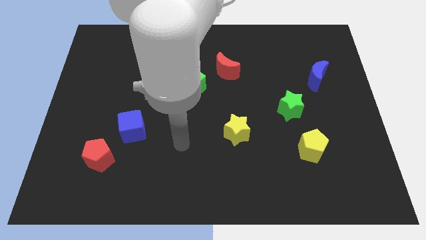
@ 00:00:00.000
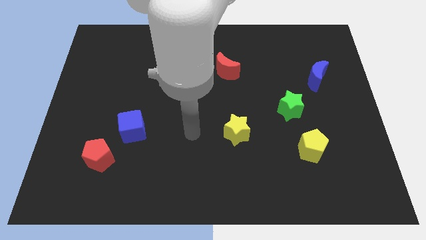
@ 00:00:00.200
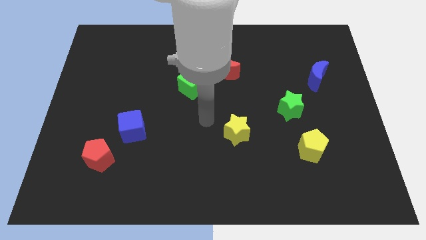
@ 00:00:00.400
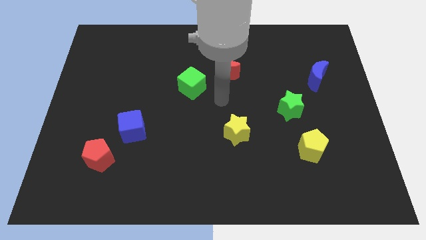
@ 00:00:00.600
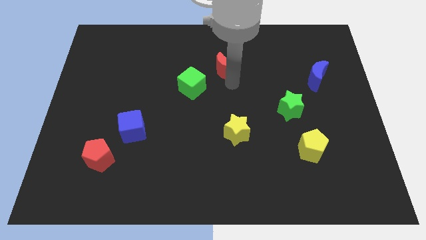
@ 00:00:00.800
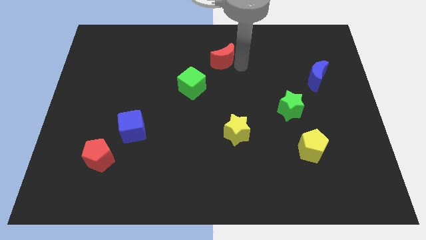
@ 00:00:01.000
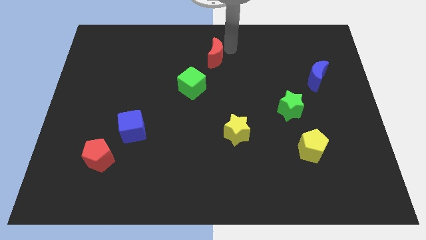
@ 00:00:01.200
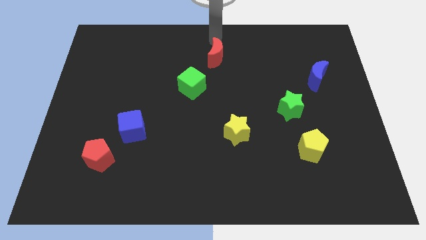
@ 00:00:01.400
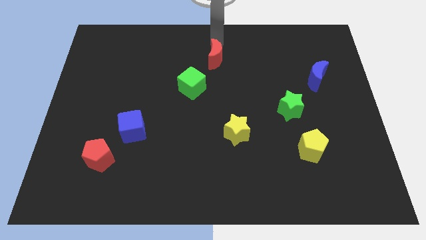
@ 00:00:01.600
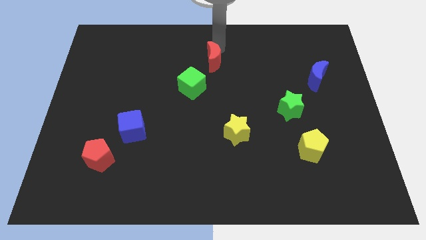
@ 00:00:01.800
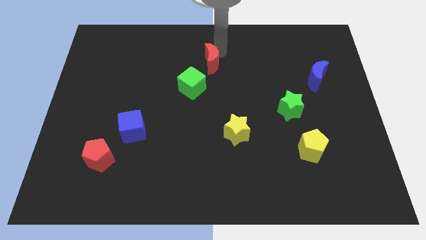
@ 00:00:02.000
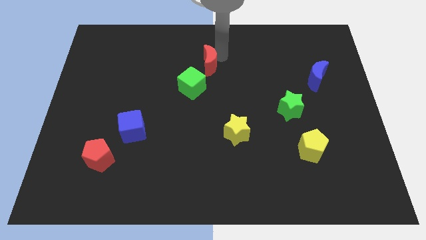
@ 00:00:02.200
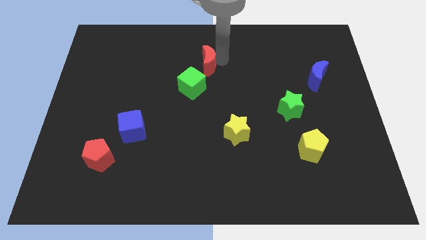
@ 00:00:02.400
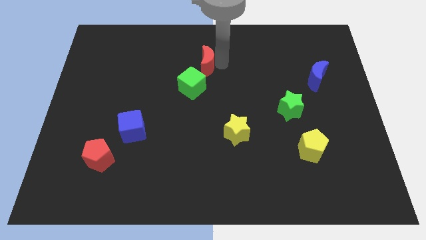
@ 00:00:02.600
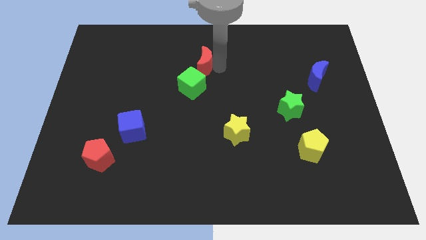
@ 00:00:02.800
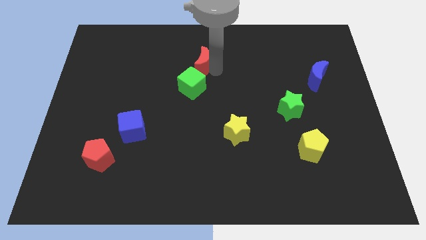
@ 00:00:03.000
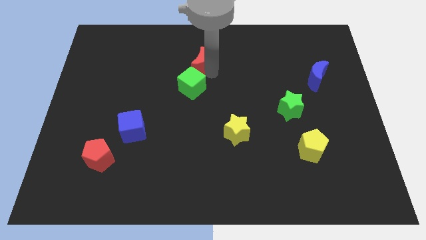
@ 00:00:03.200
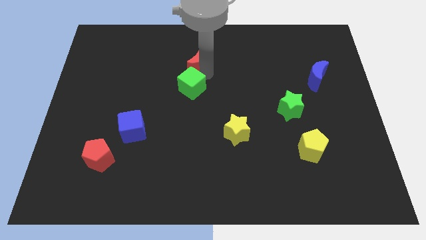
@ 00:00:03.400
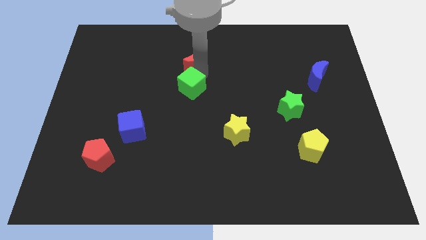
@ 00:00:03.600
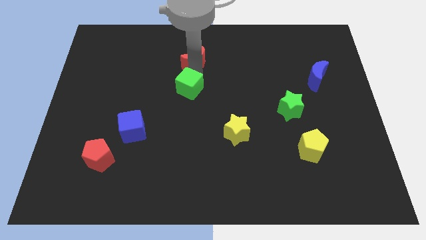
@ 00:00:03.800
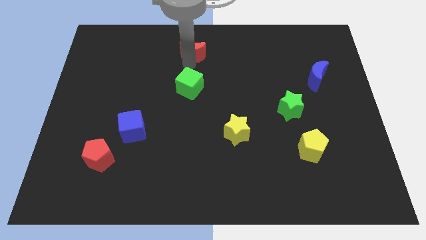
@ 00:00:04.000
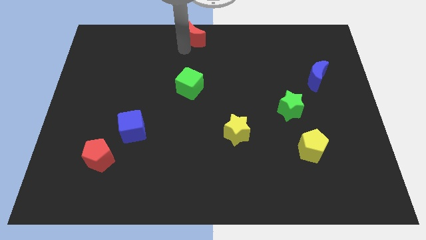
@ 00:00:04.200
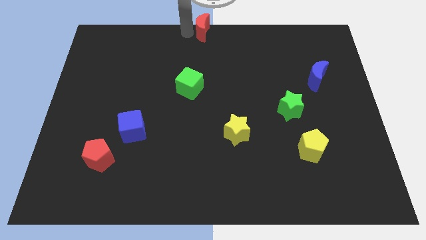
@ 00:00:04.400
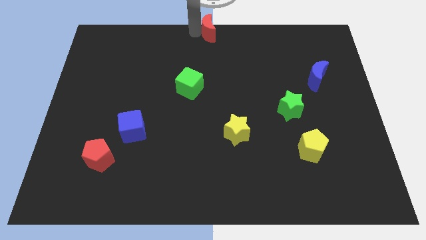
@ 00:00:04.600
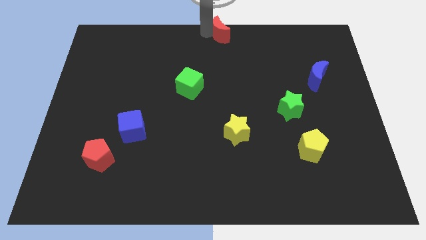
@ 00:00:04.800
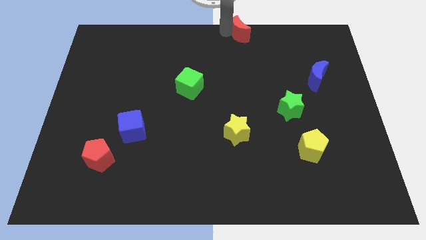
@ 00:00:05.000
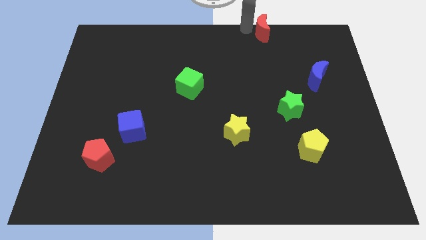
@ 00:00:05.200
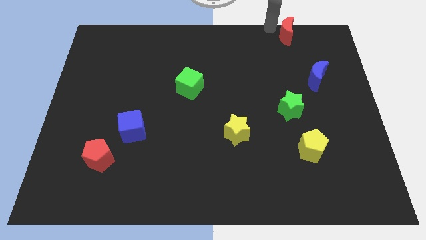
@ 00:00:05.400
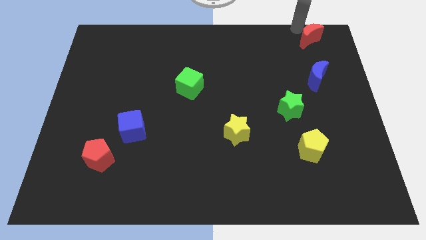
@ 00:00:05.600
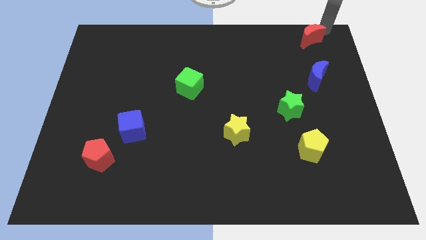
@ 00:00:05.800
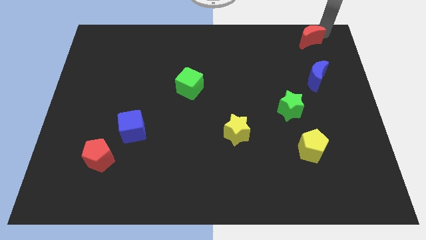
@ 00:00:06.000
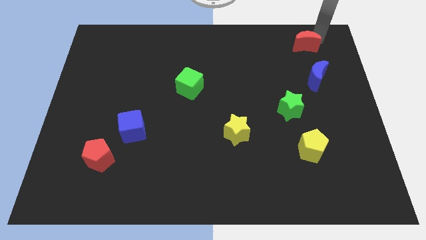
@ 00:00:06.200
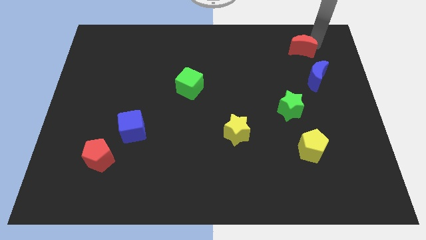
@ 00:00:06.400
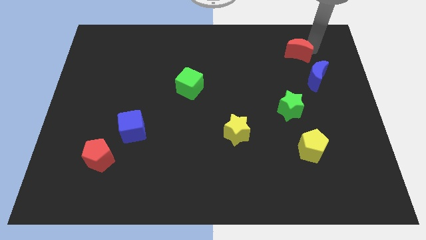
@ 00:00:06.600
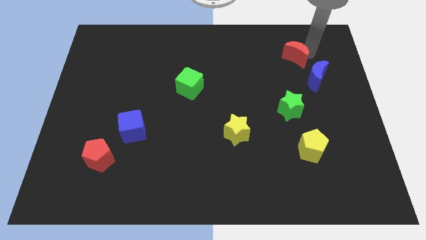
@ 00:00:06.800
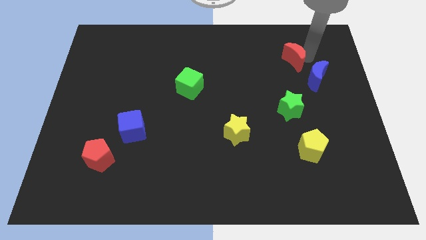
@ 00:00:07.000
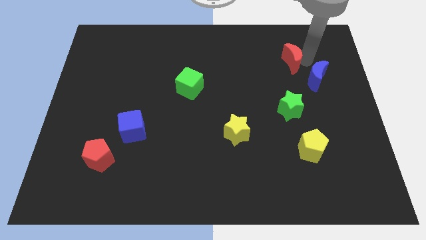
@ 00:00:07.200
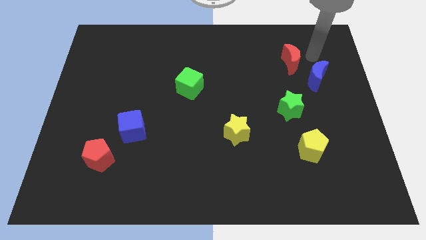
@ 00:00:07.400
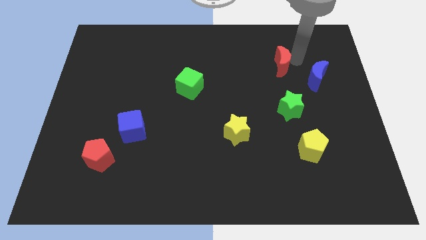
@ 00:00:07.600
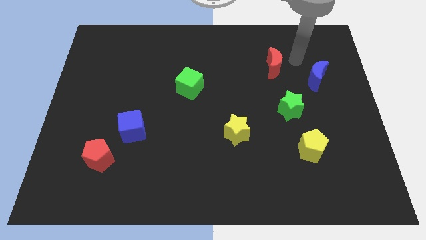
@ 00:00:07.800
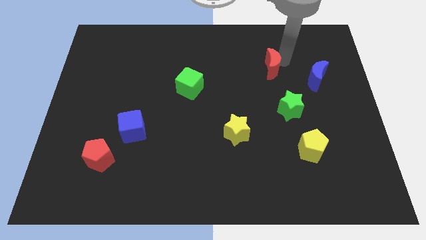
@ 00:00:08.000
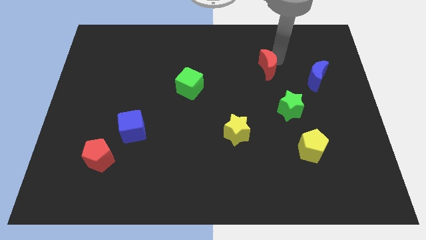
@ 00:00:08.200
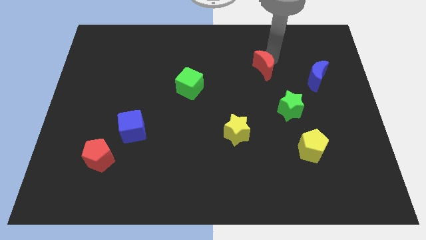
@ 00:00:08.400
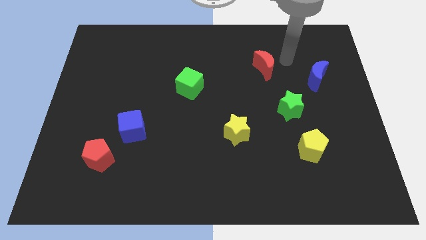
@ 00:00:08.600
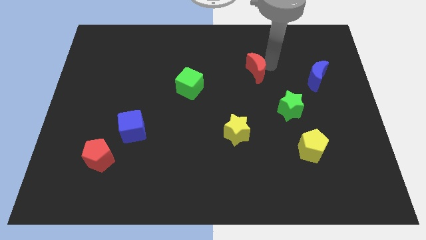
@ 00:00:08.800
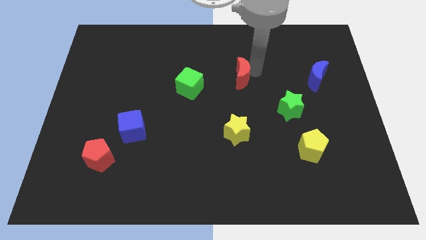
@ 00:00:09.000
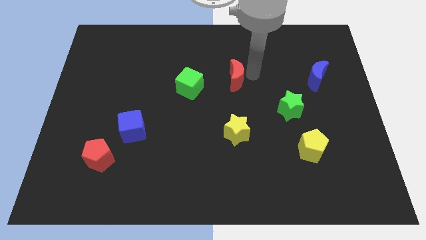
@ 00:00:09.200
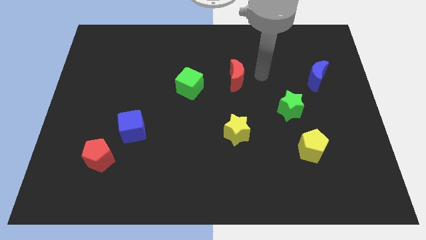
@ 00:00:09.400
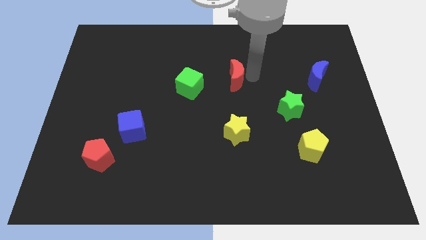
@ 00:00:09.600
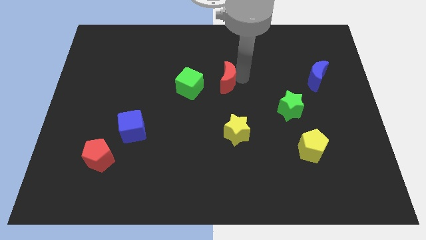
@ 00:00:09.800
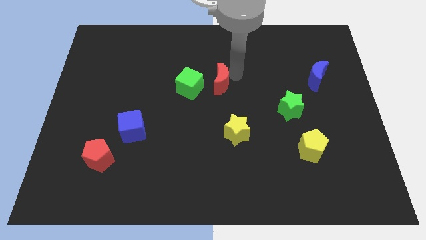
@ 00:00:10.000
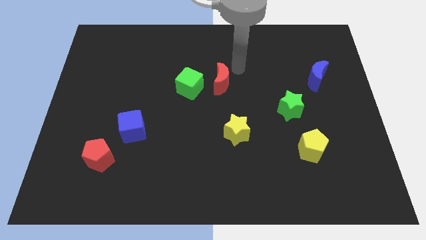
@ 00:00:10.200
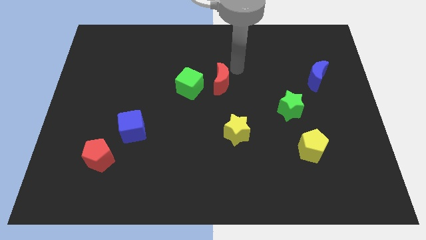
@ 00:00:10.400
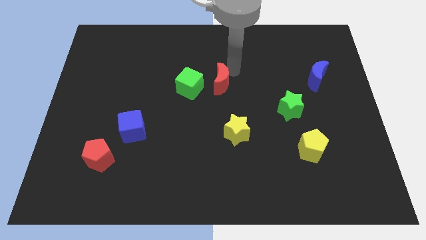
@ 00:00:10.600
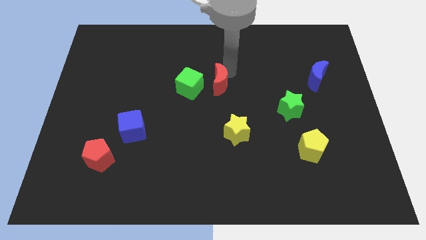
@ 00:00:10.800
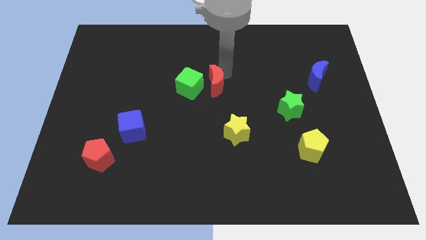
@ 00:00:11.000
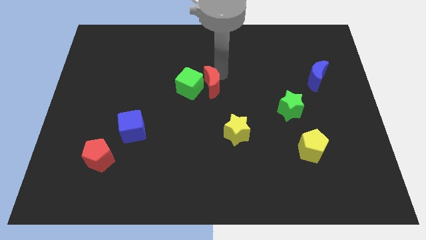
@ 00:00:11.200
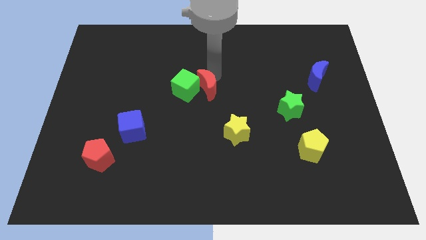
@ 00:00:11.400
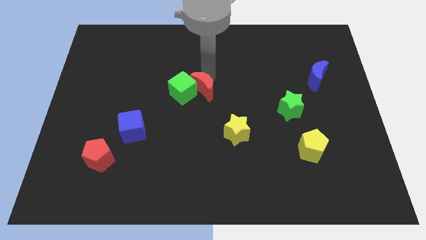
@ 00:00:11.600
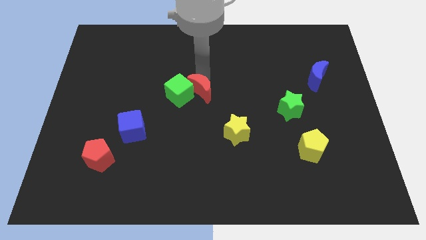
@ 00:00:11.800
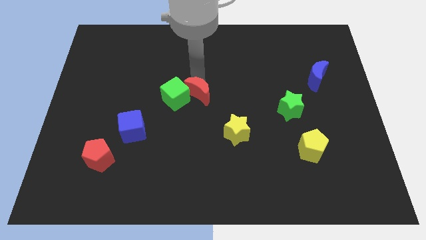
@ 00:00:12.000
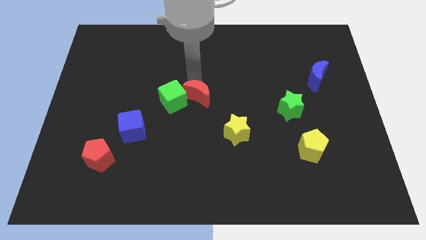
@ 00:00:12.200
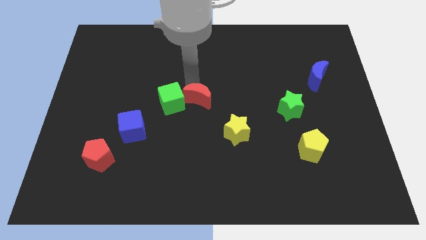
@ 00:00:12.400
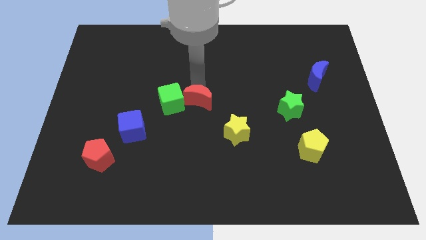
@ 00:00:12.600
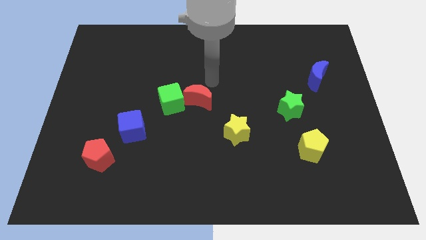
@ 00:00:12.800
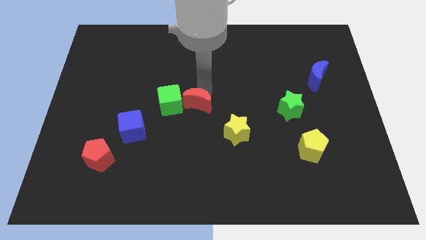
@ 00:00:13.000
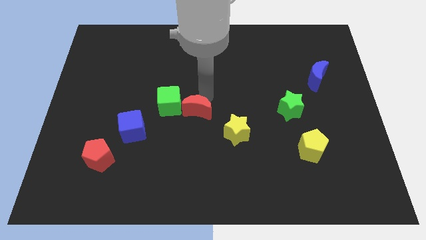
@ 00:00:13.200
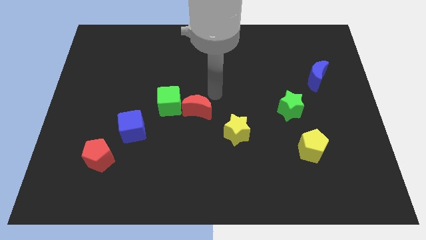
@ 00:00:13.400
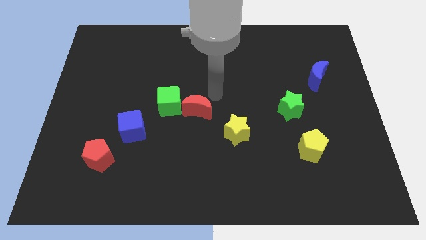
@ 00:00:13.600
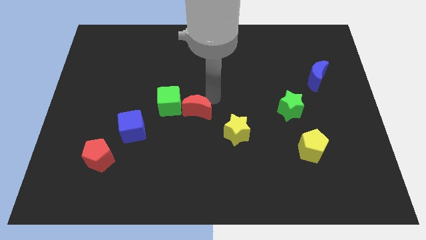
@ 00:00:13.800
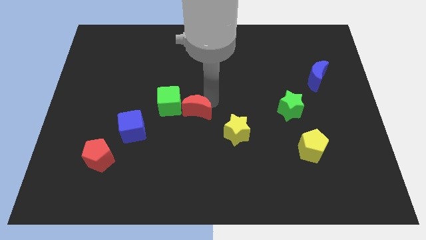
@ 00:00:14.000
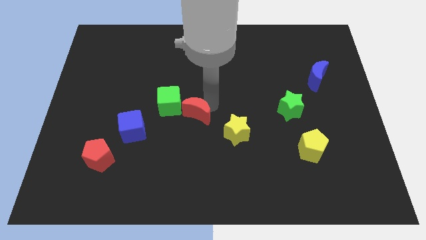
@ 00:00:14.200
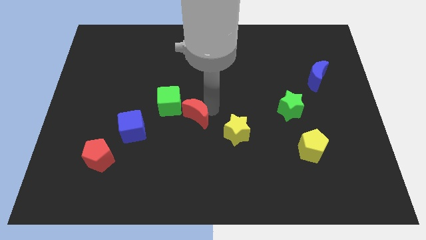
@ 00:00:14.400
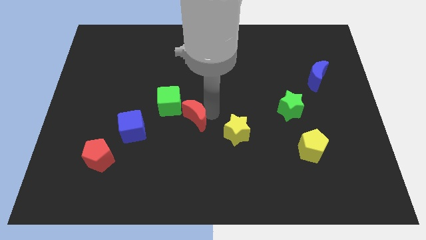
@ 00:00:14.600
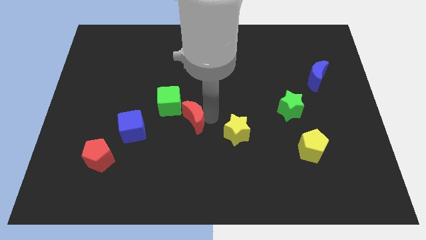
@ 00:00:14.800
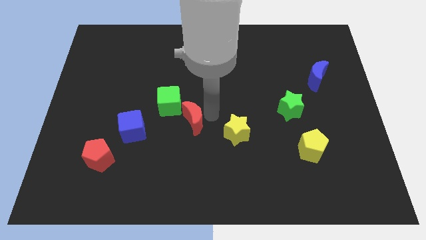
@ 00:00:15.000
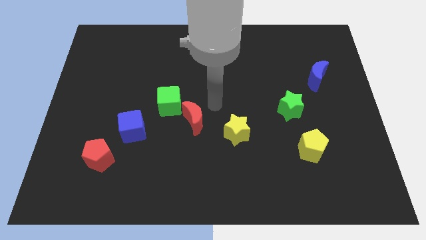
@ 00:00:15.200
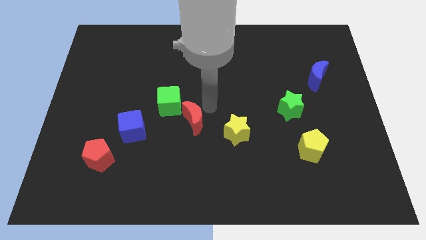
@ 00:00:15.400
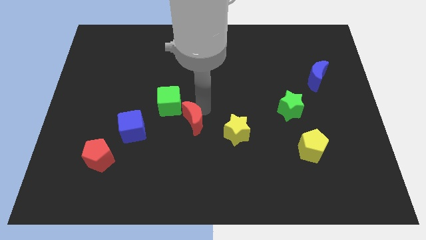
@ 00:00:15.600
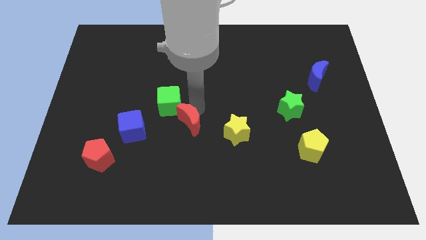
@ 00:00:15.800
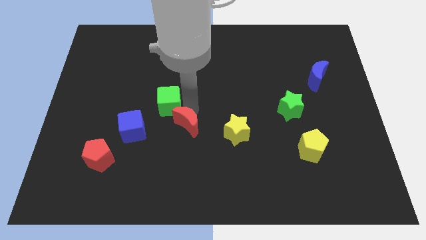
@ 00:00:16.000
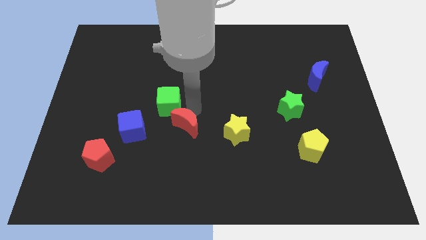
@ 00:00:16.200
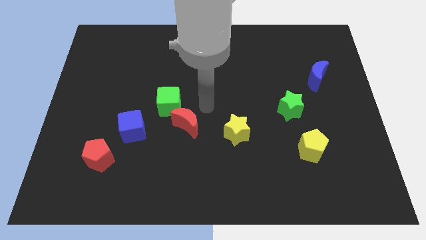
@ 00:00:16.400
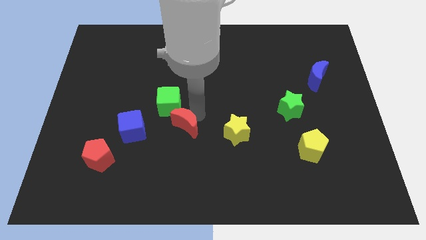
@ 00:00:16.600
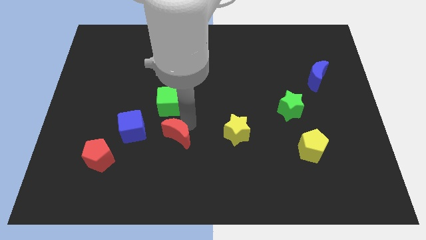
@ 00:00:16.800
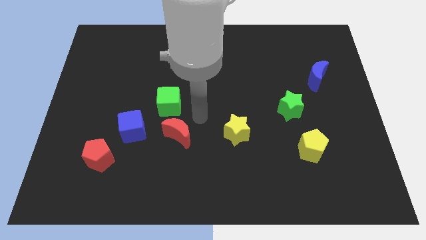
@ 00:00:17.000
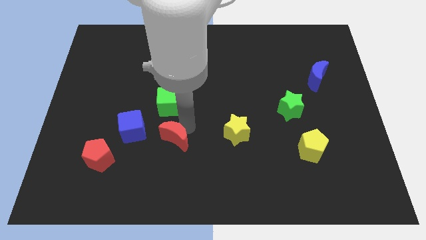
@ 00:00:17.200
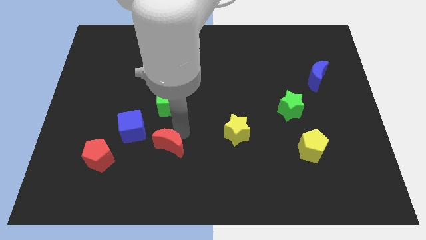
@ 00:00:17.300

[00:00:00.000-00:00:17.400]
put the red moon just right of the red pentagon
